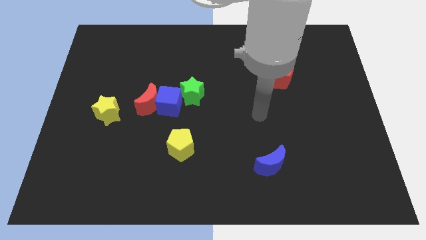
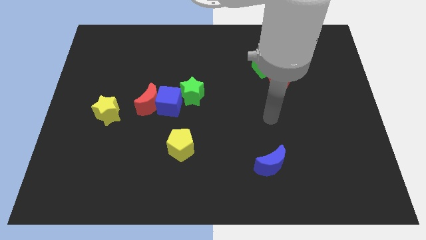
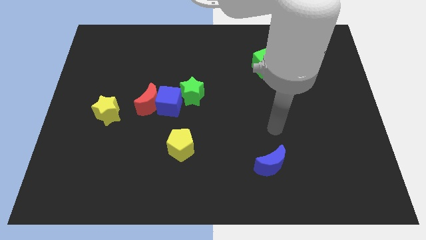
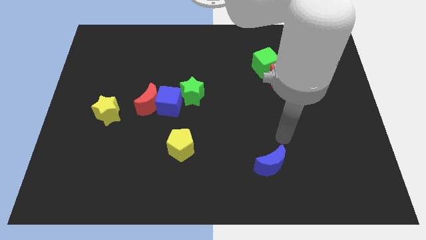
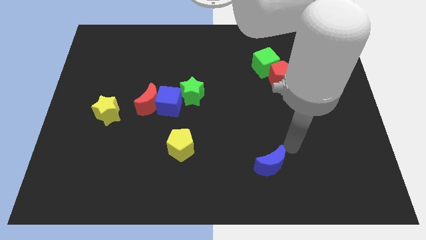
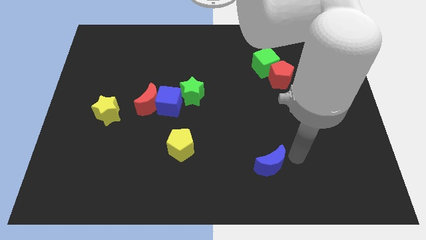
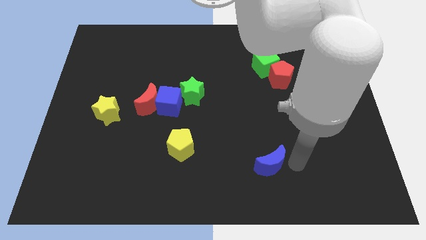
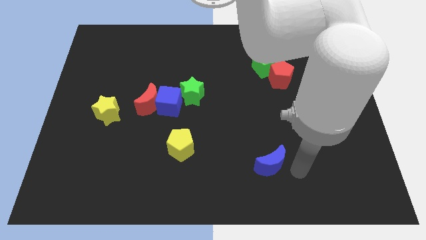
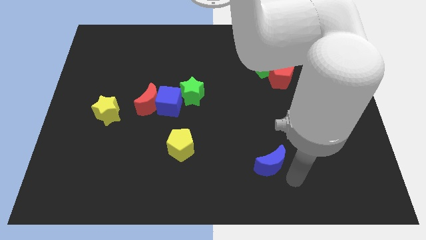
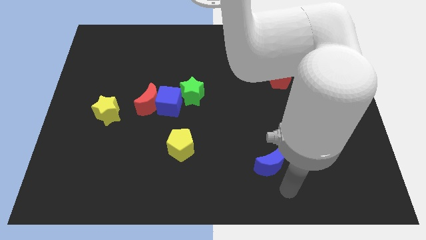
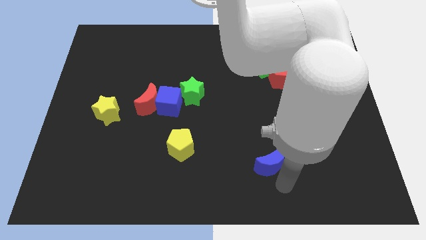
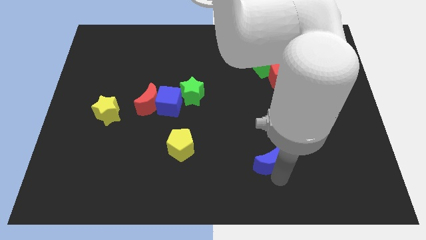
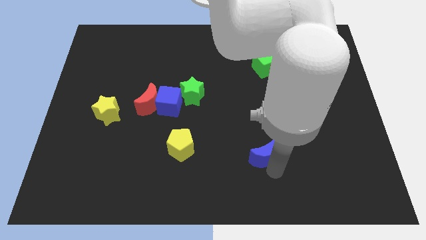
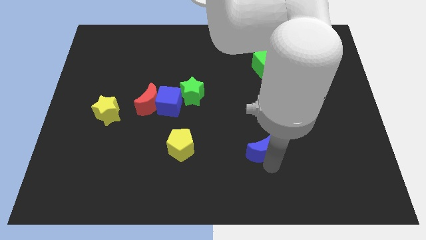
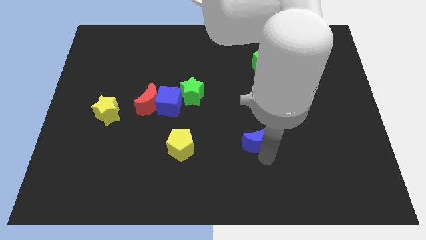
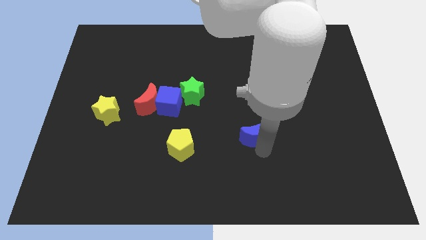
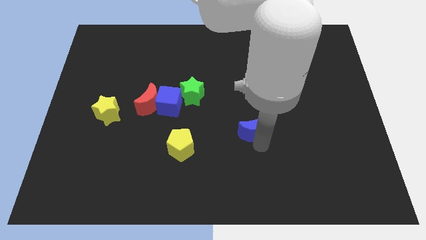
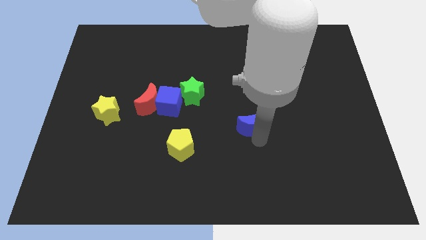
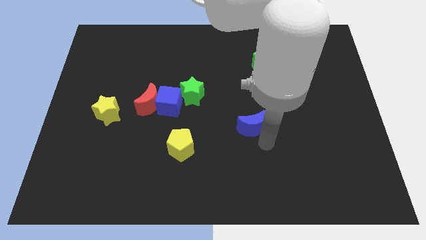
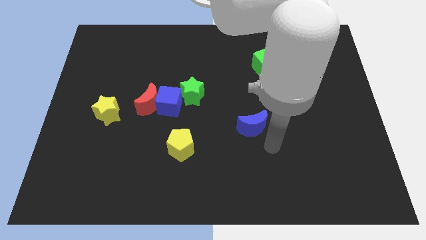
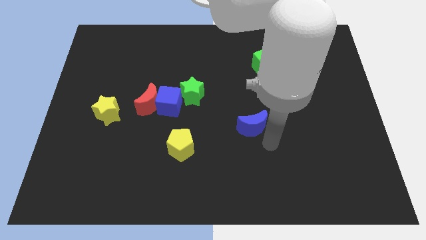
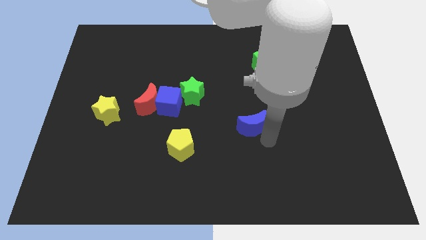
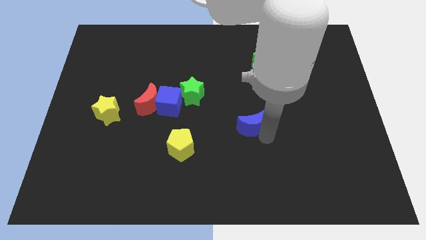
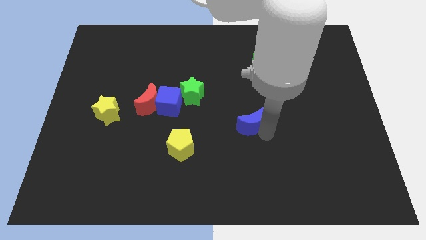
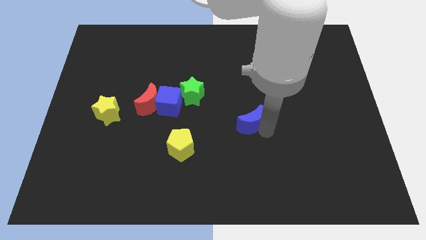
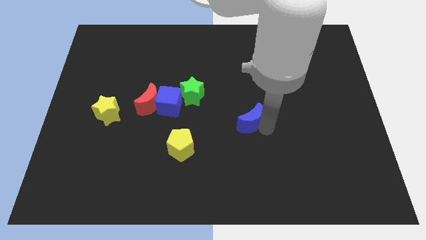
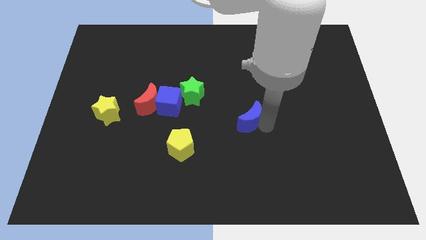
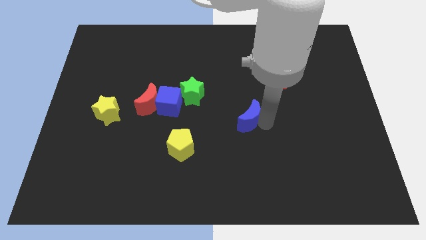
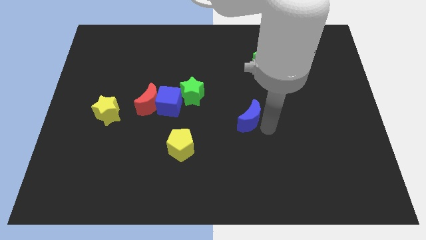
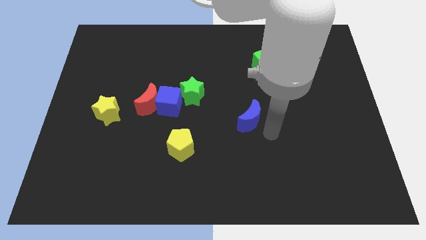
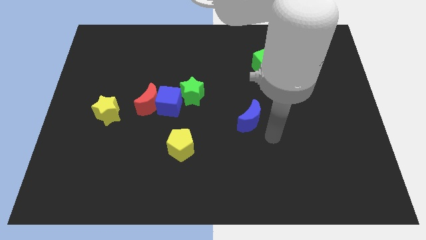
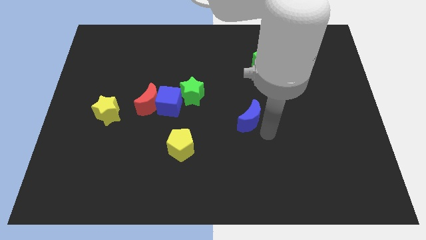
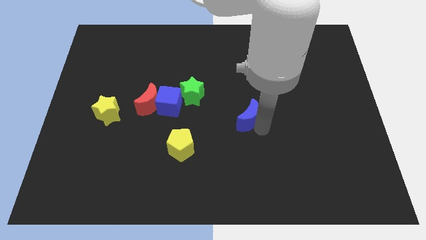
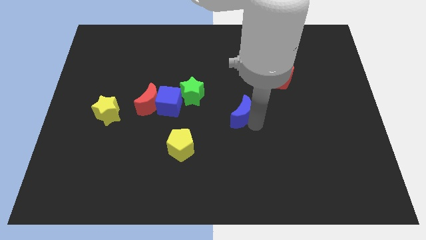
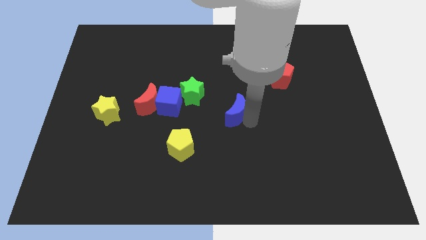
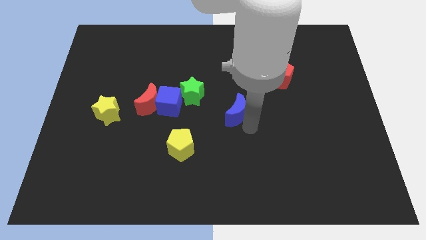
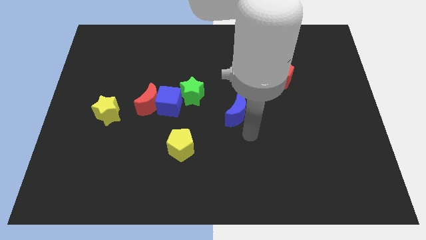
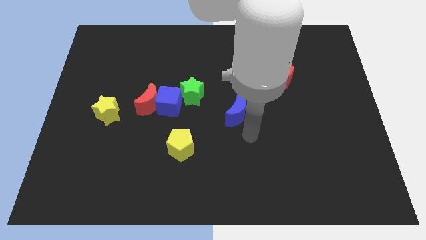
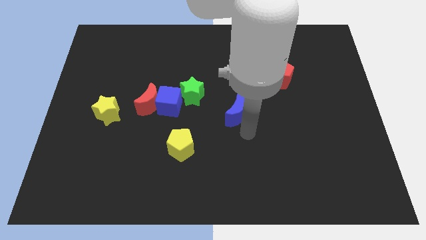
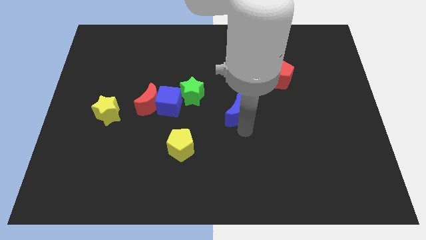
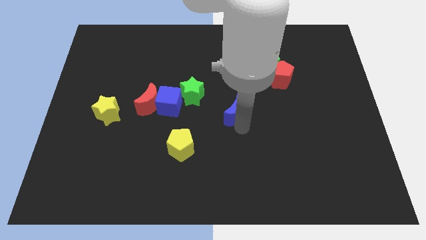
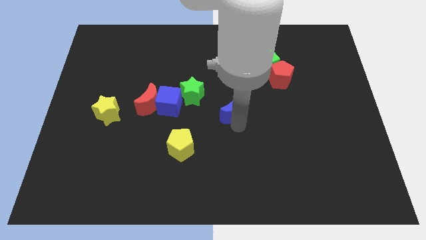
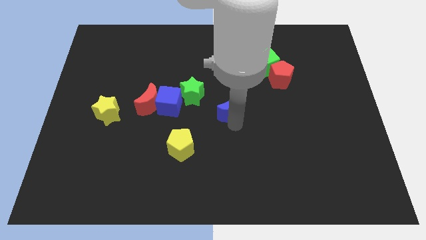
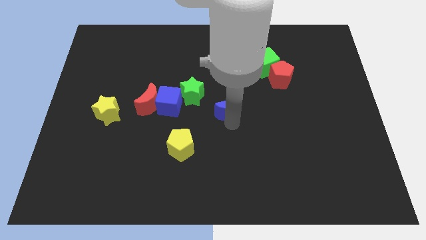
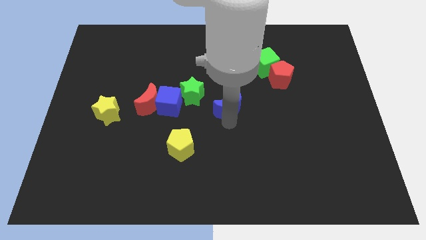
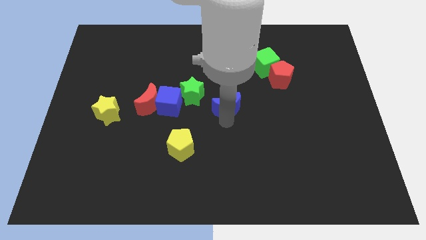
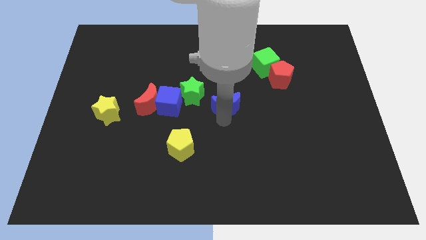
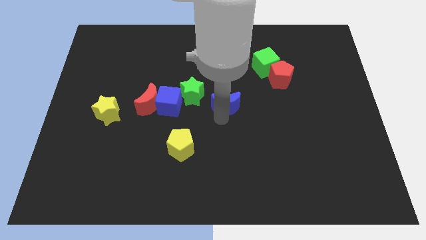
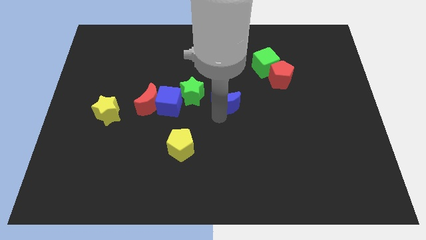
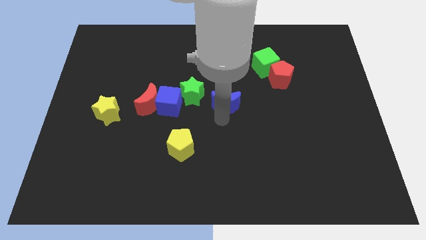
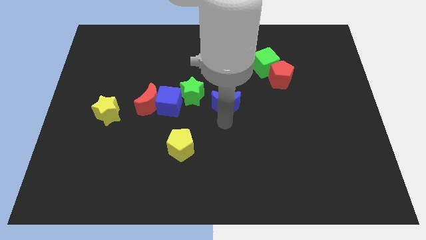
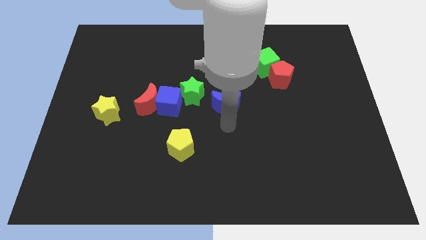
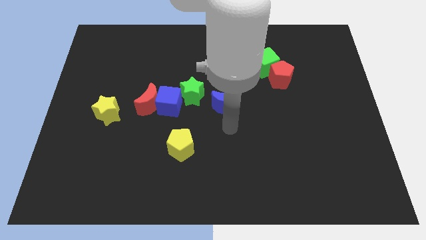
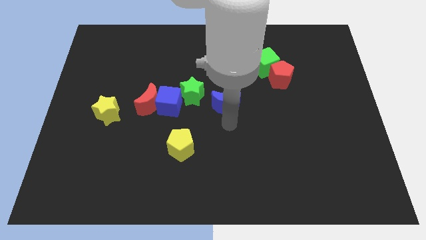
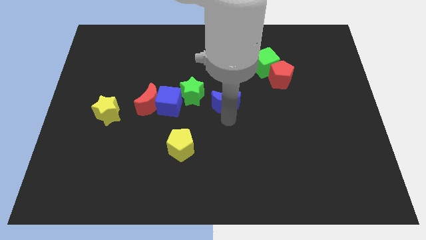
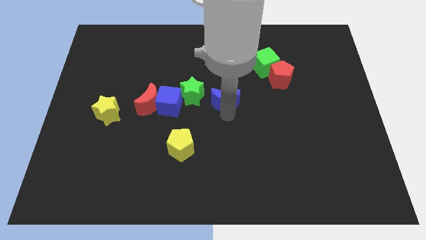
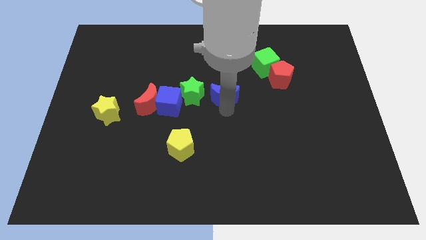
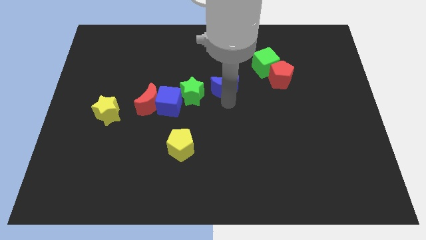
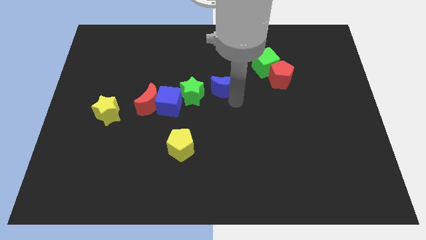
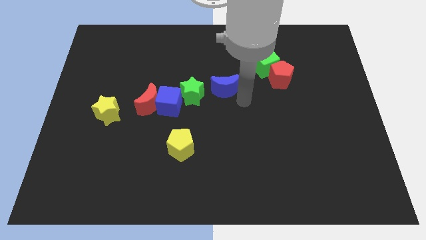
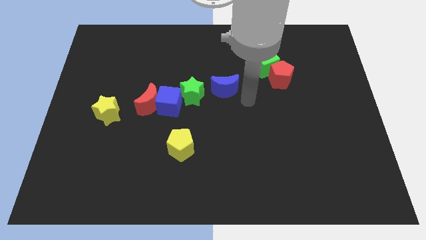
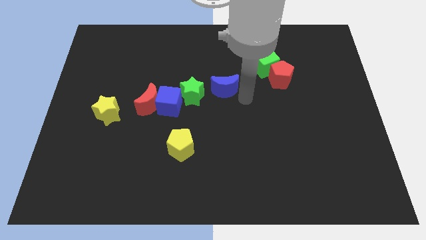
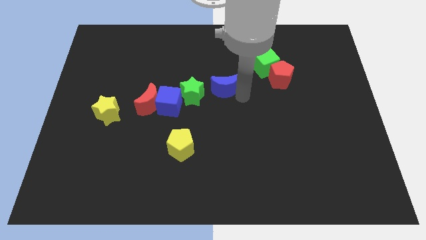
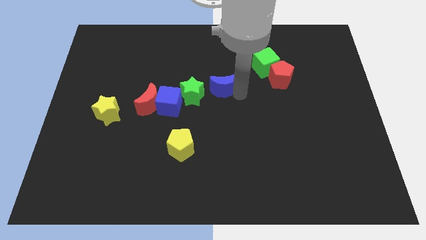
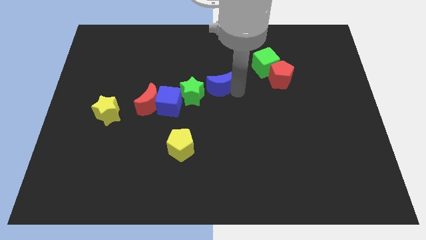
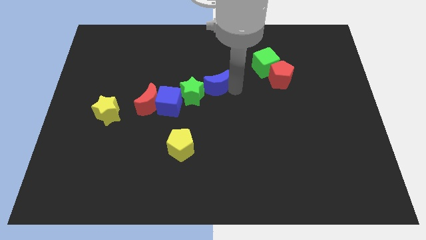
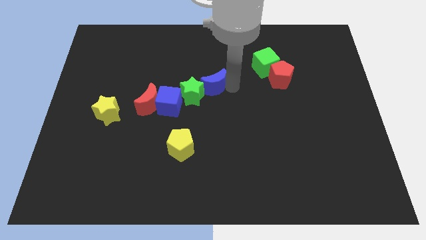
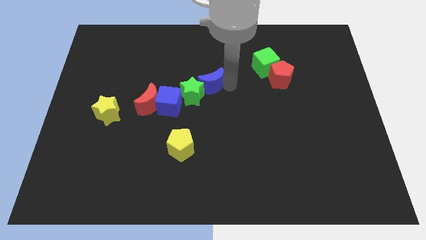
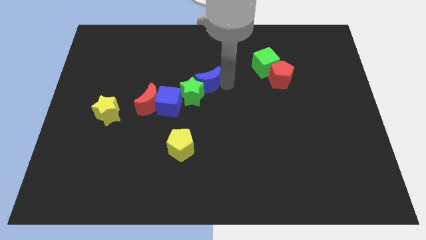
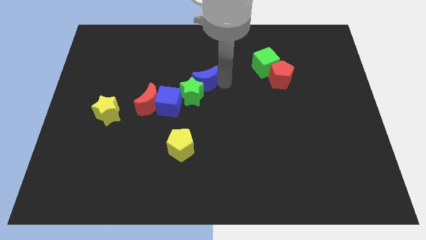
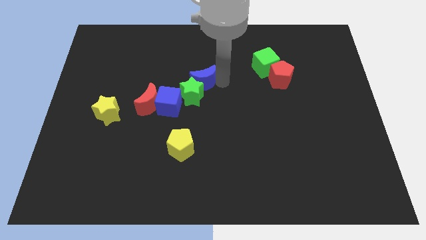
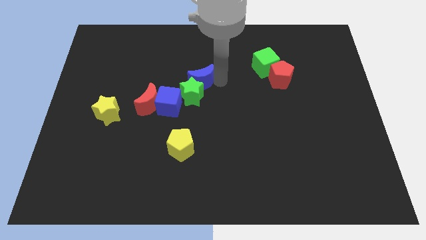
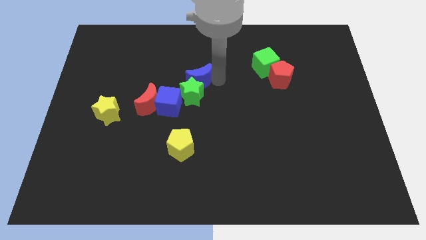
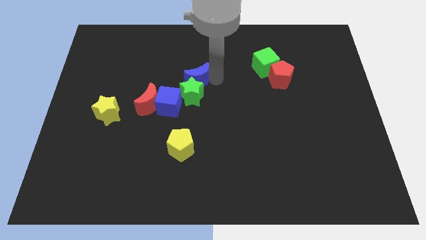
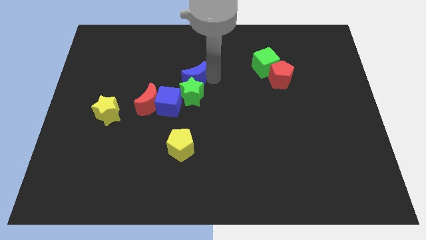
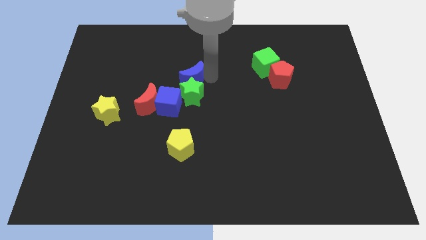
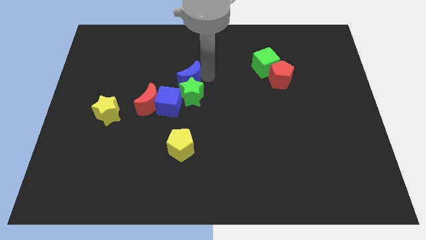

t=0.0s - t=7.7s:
put the blue moon above the blue cube
